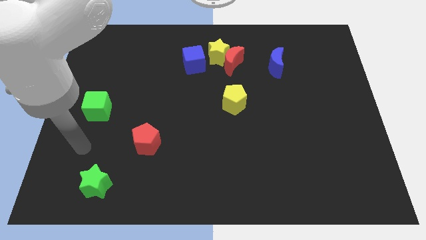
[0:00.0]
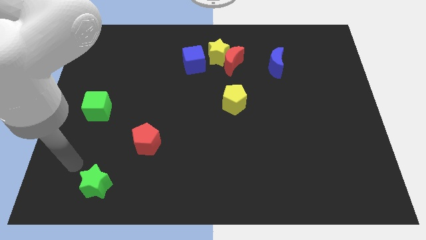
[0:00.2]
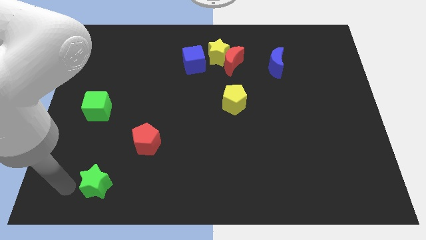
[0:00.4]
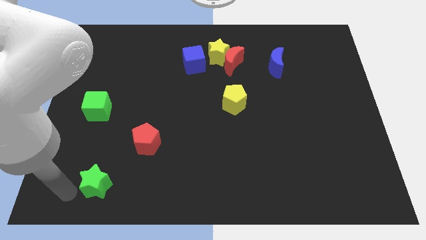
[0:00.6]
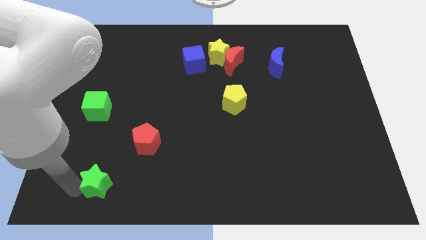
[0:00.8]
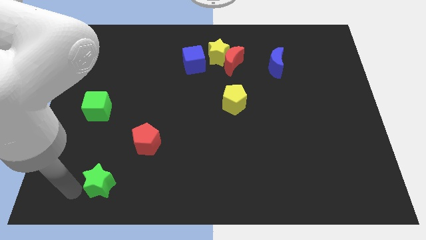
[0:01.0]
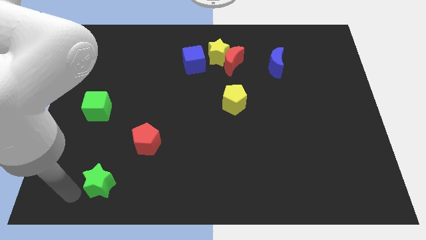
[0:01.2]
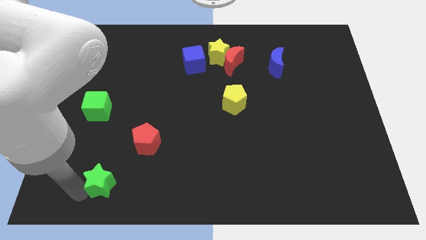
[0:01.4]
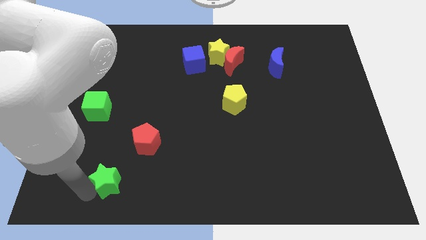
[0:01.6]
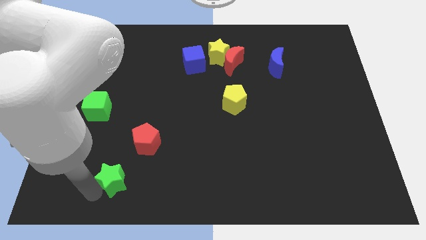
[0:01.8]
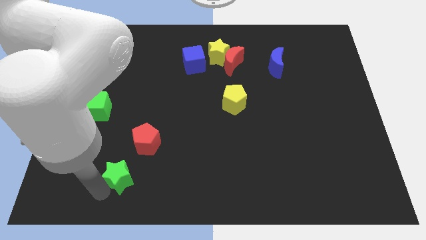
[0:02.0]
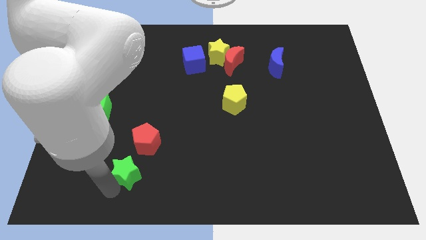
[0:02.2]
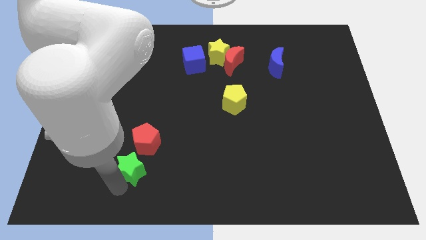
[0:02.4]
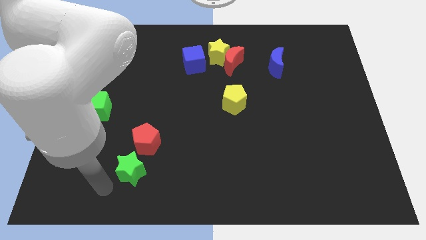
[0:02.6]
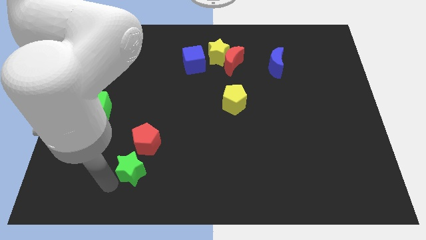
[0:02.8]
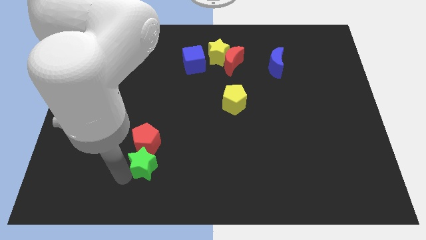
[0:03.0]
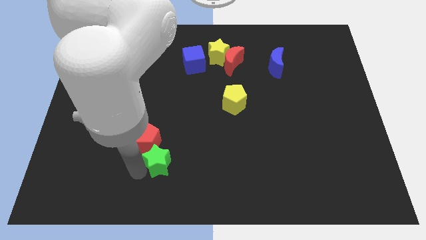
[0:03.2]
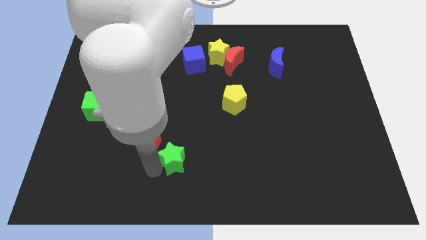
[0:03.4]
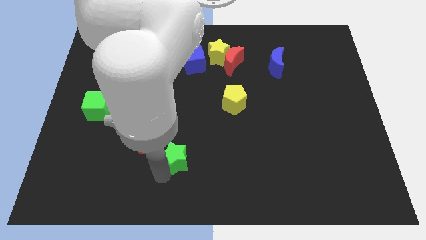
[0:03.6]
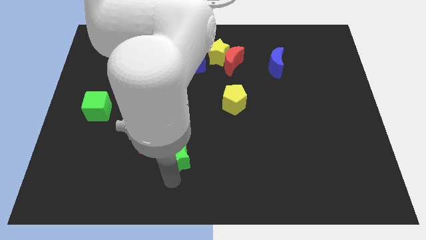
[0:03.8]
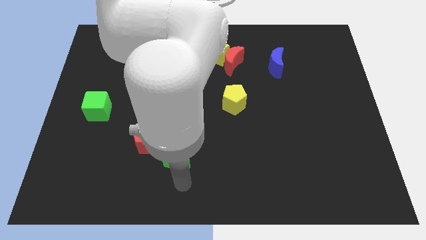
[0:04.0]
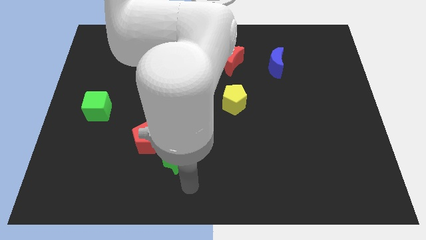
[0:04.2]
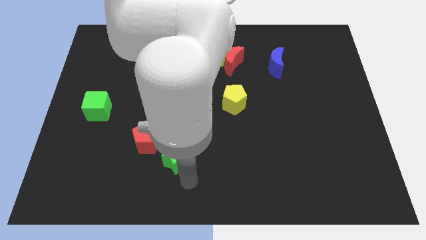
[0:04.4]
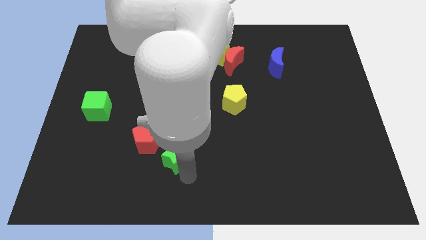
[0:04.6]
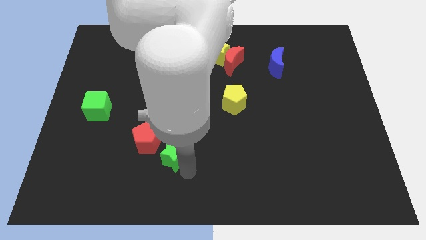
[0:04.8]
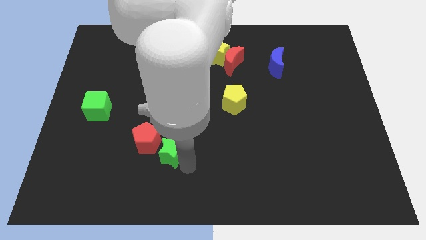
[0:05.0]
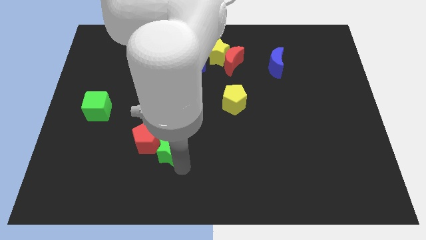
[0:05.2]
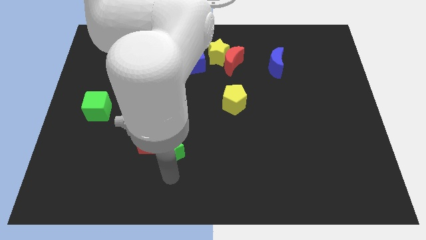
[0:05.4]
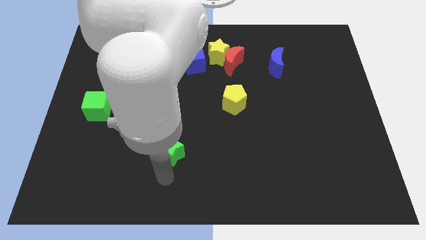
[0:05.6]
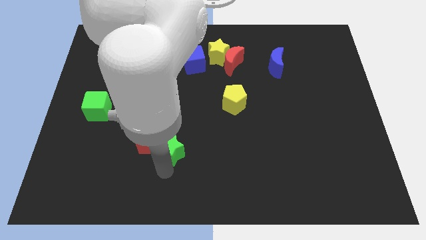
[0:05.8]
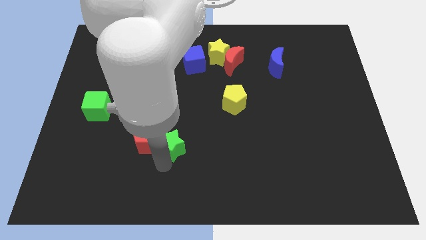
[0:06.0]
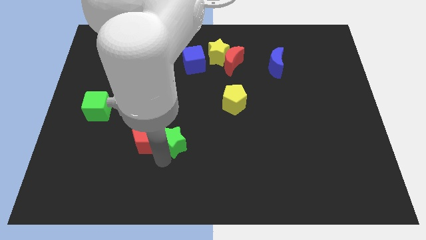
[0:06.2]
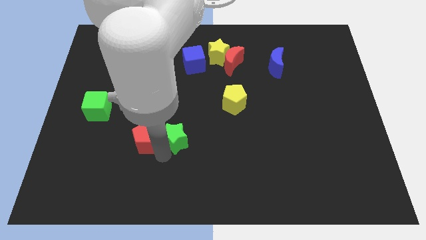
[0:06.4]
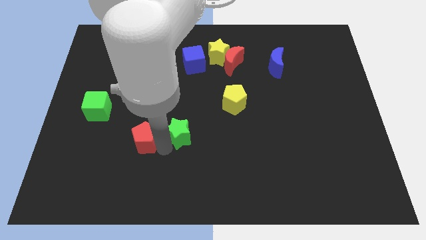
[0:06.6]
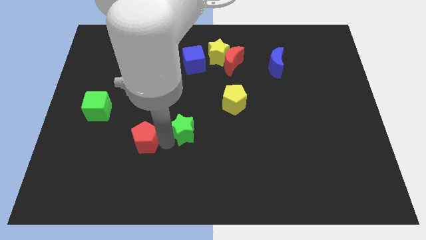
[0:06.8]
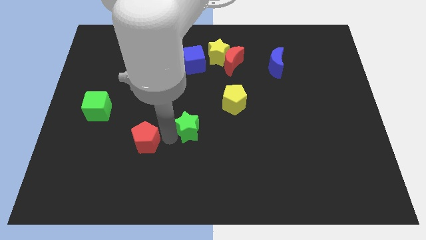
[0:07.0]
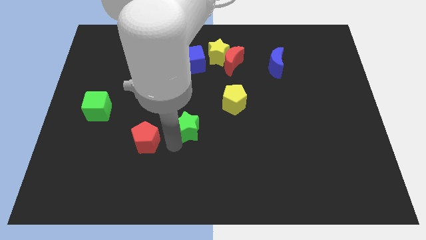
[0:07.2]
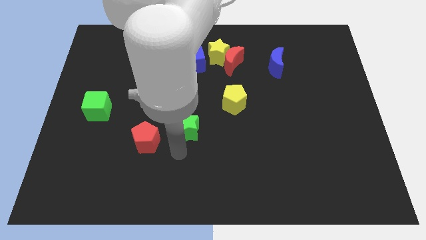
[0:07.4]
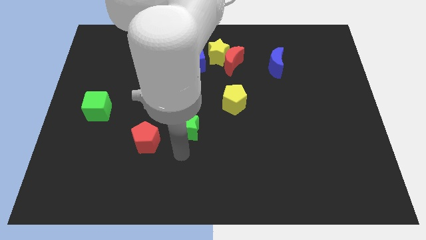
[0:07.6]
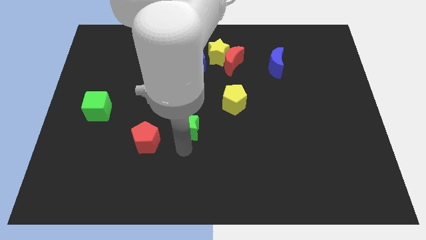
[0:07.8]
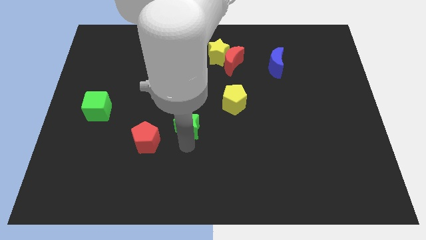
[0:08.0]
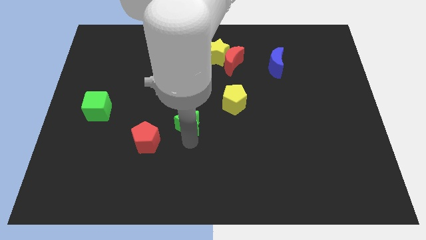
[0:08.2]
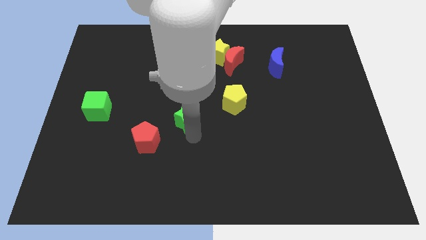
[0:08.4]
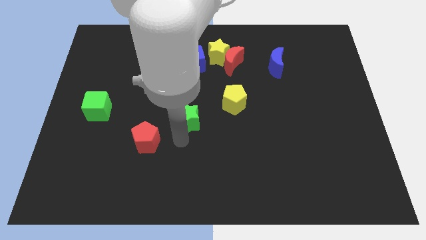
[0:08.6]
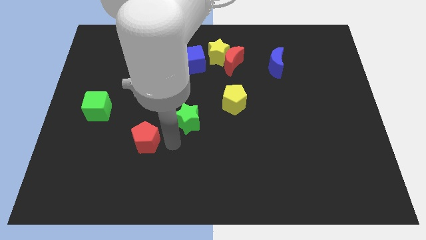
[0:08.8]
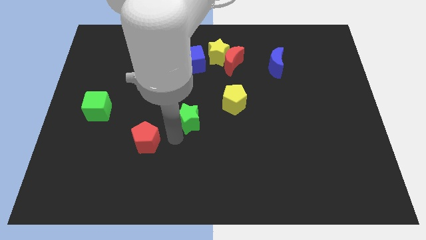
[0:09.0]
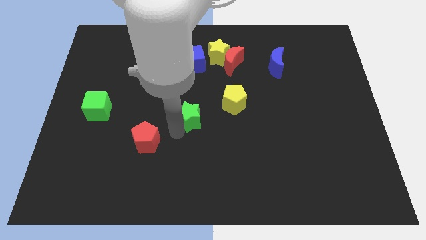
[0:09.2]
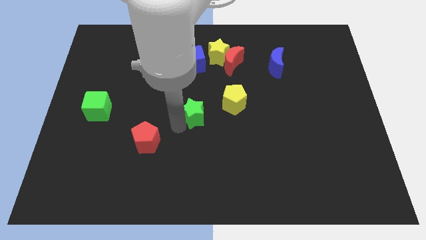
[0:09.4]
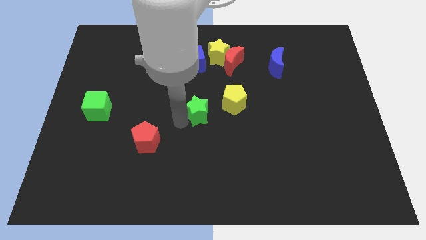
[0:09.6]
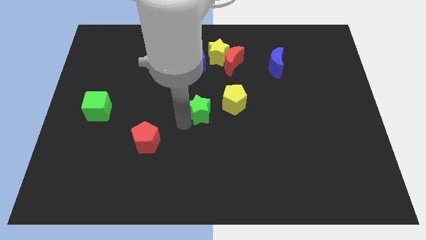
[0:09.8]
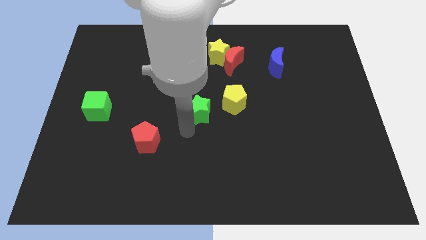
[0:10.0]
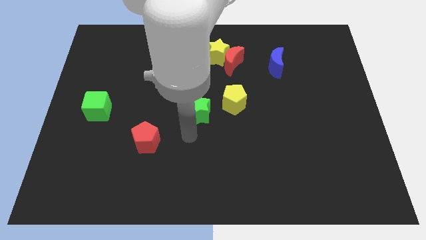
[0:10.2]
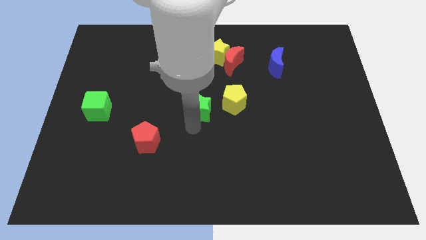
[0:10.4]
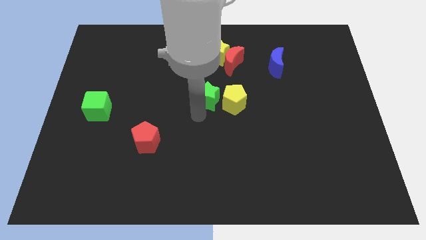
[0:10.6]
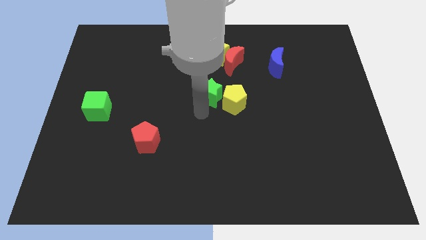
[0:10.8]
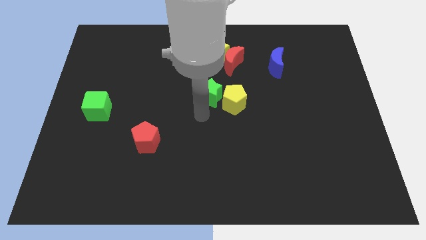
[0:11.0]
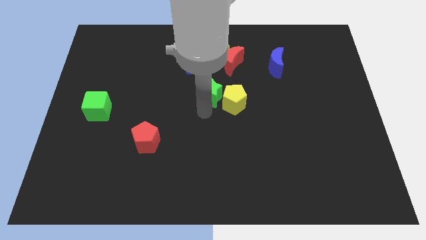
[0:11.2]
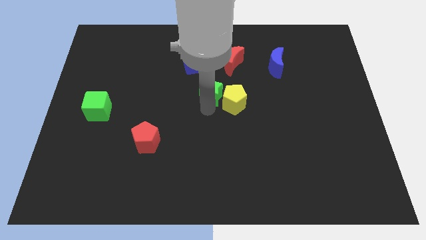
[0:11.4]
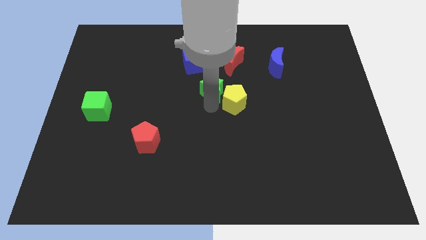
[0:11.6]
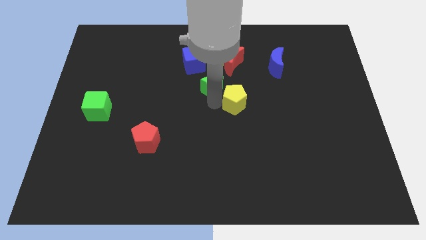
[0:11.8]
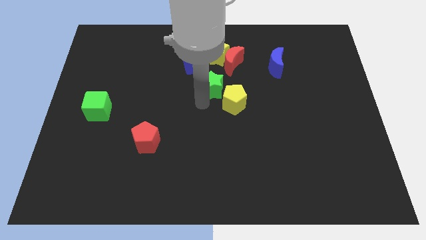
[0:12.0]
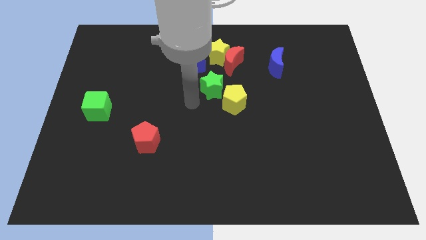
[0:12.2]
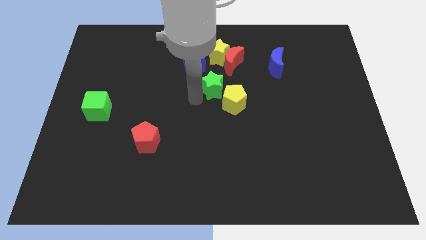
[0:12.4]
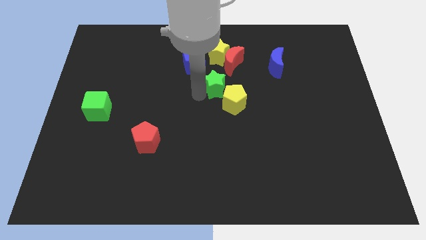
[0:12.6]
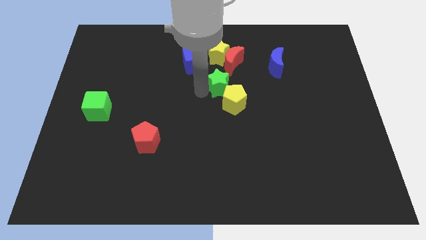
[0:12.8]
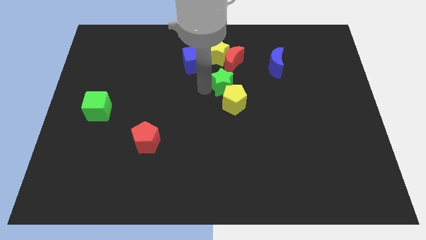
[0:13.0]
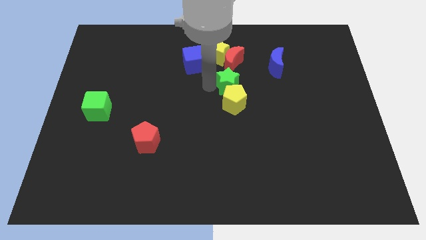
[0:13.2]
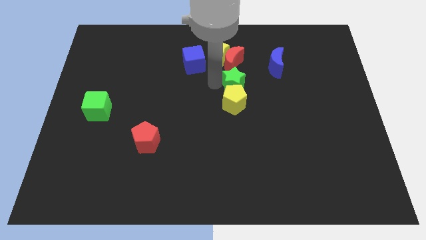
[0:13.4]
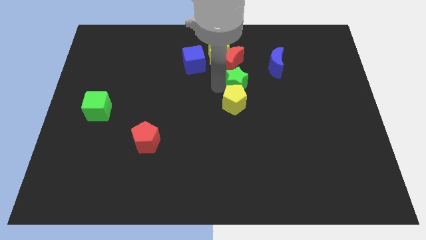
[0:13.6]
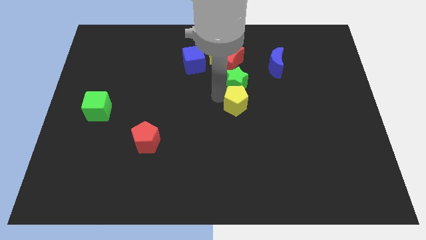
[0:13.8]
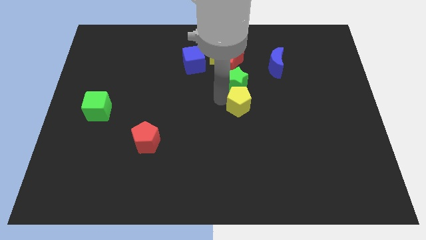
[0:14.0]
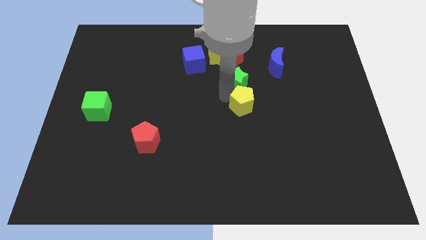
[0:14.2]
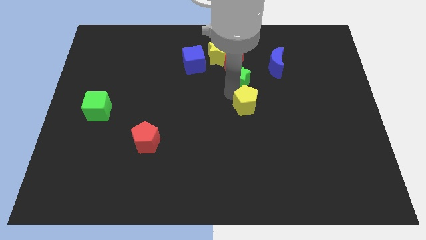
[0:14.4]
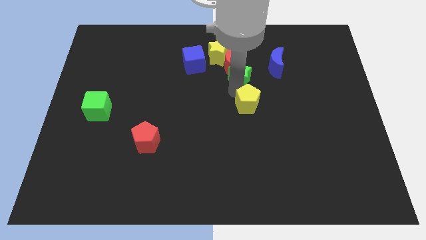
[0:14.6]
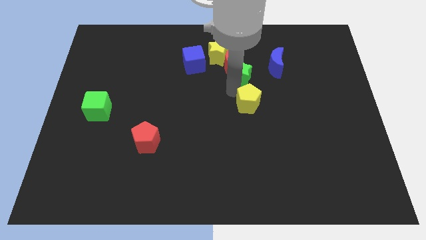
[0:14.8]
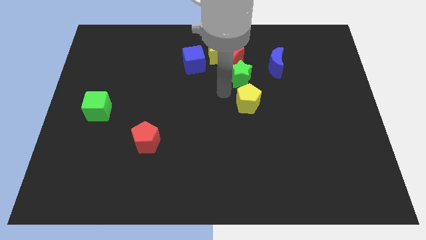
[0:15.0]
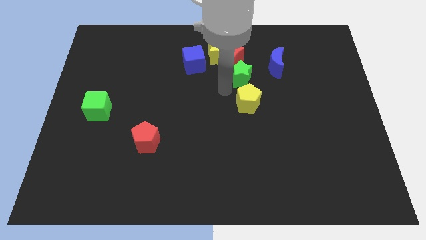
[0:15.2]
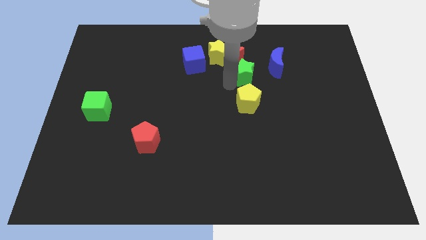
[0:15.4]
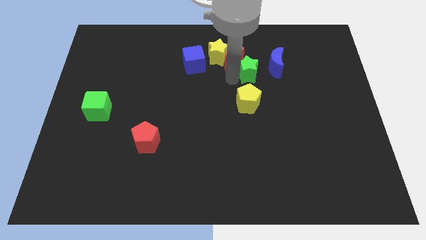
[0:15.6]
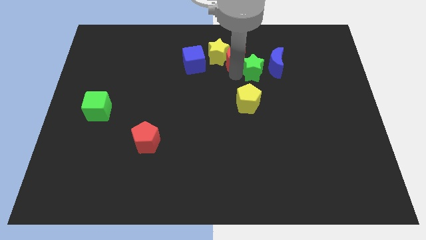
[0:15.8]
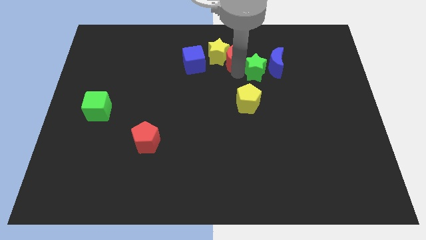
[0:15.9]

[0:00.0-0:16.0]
put the green star to the blue moon
